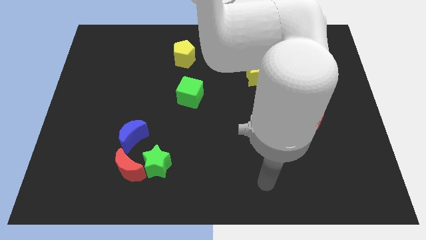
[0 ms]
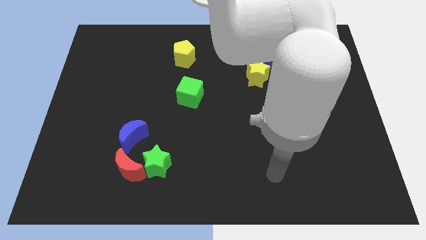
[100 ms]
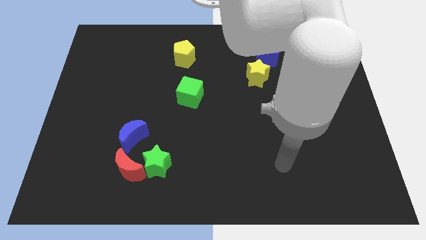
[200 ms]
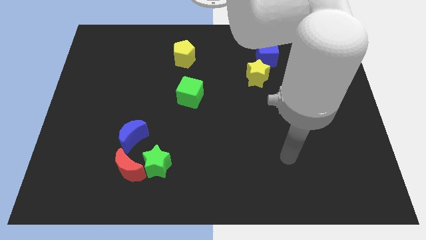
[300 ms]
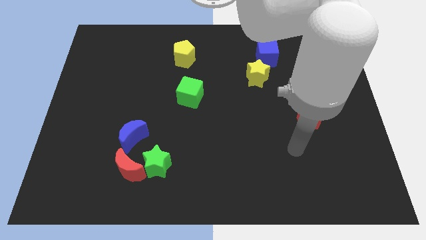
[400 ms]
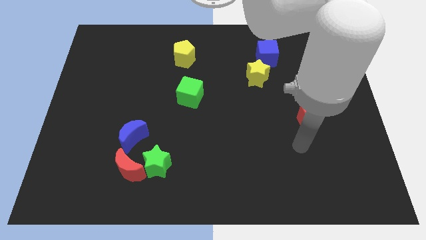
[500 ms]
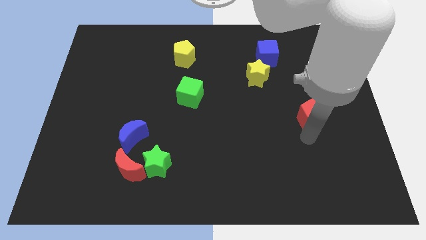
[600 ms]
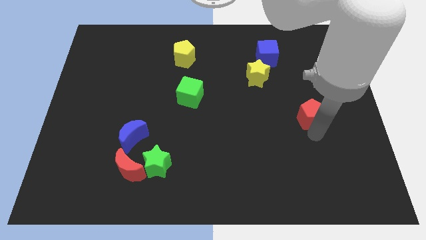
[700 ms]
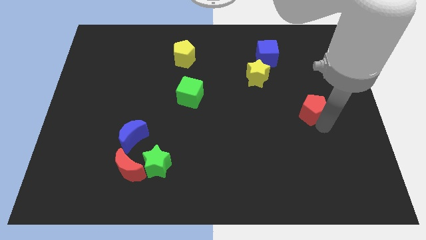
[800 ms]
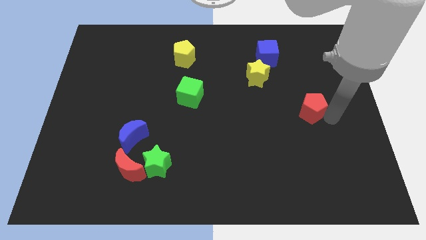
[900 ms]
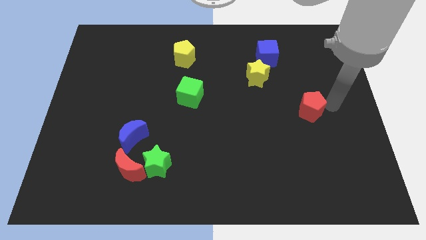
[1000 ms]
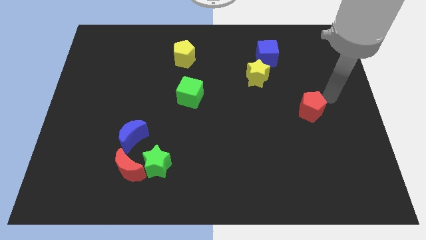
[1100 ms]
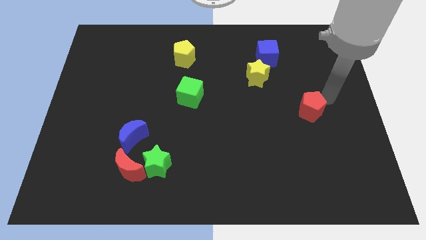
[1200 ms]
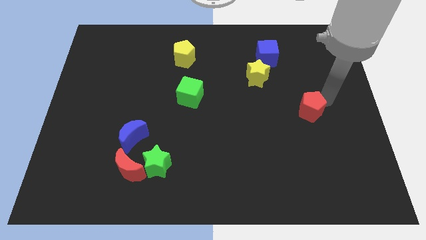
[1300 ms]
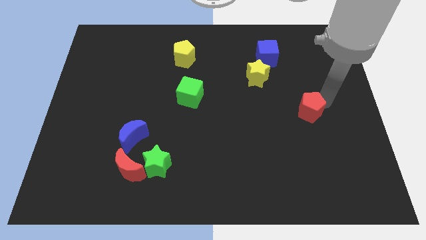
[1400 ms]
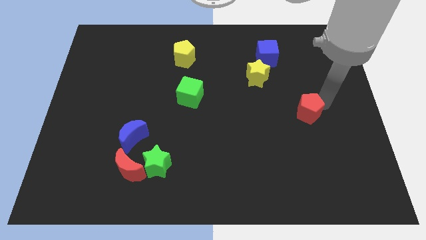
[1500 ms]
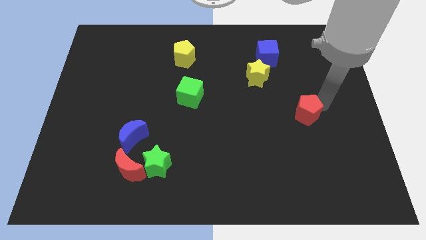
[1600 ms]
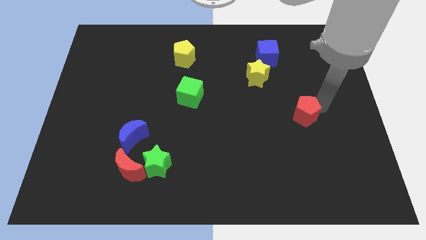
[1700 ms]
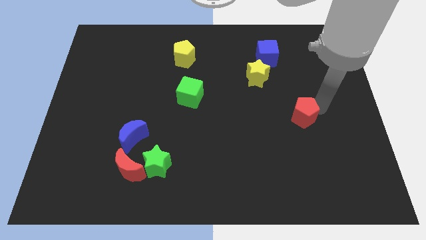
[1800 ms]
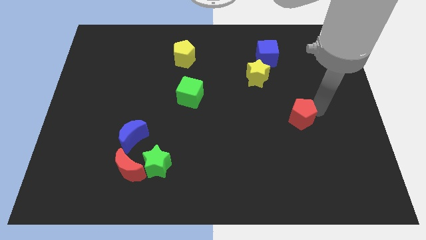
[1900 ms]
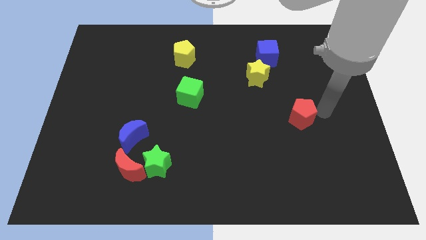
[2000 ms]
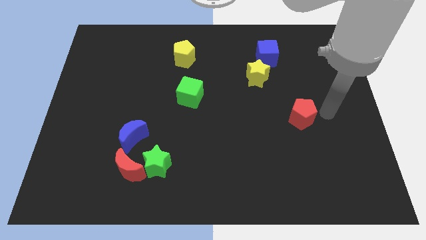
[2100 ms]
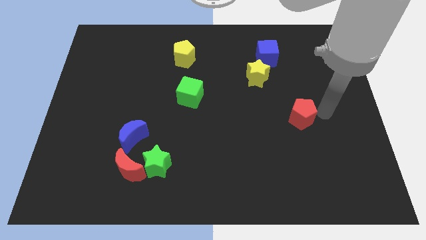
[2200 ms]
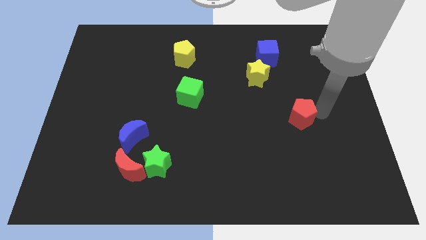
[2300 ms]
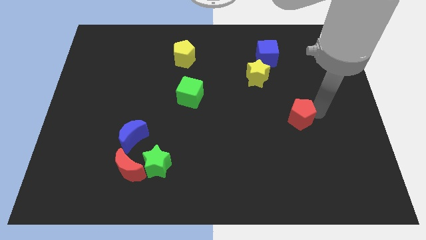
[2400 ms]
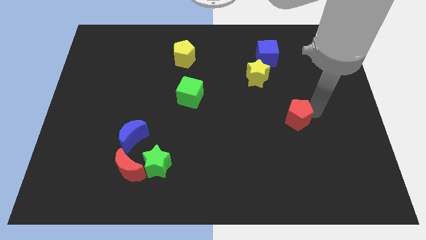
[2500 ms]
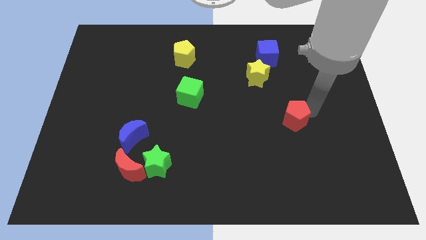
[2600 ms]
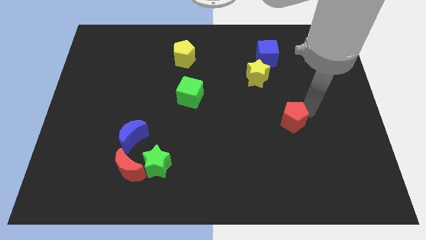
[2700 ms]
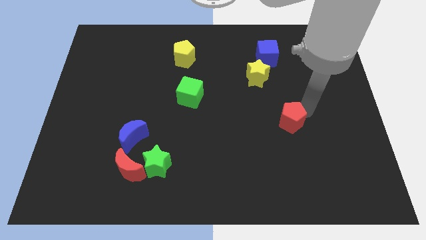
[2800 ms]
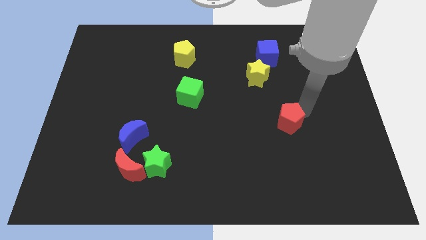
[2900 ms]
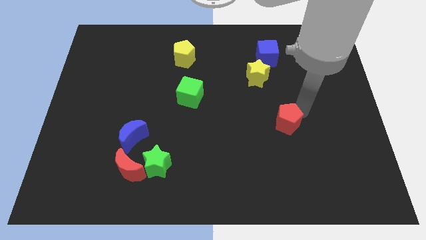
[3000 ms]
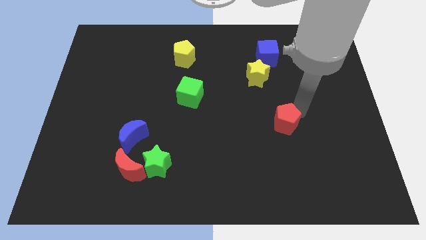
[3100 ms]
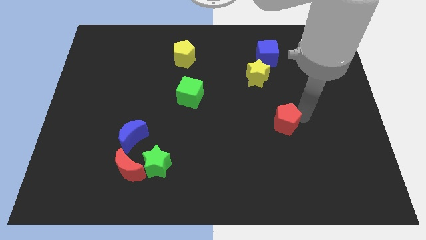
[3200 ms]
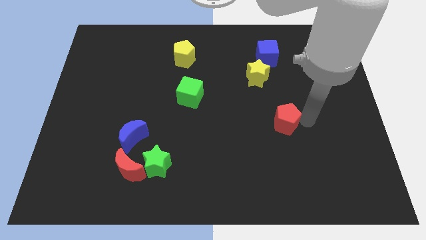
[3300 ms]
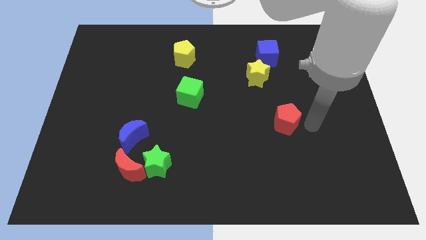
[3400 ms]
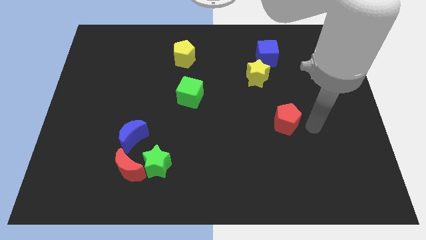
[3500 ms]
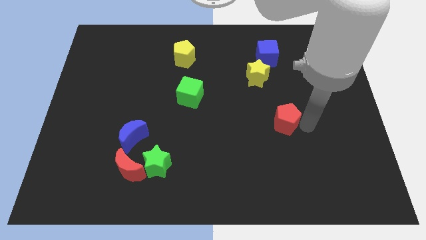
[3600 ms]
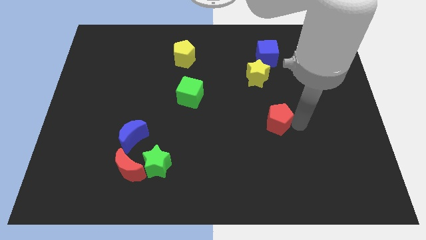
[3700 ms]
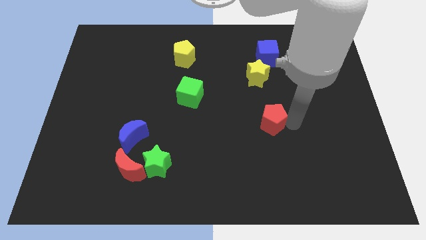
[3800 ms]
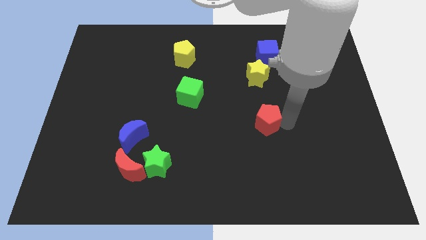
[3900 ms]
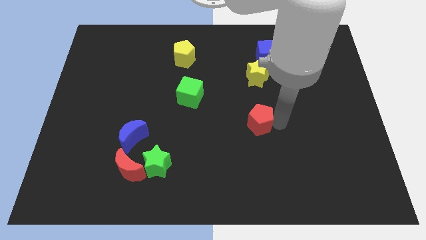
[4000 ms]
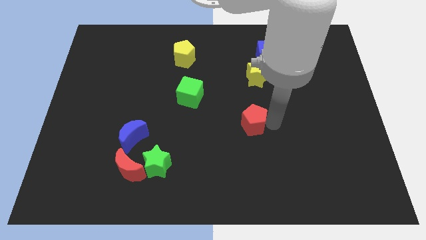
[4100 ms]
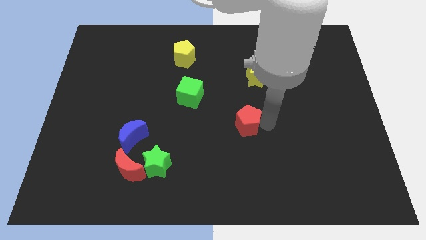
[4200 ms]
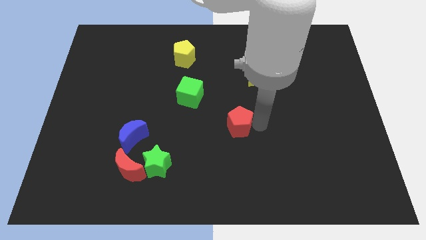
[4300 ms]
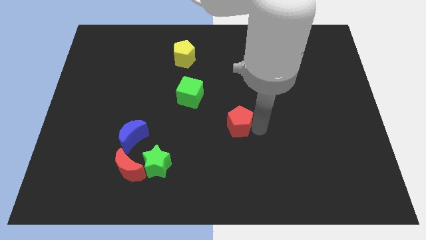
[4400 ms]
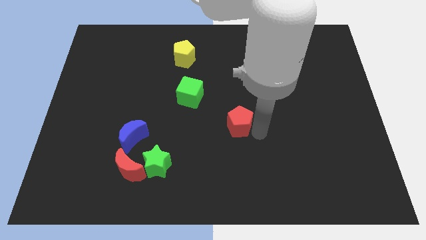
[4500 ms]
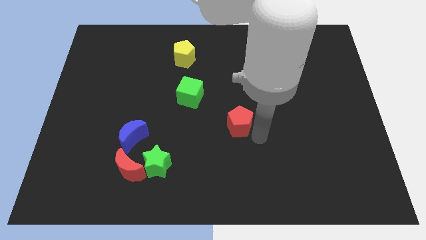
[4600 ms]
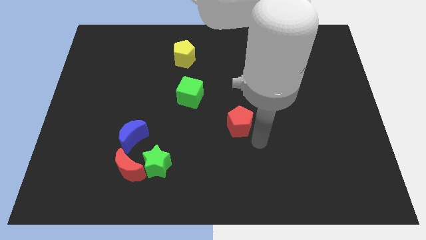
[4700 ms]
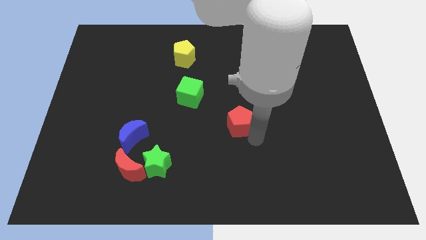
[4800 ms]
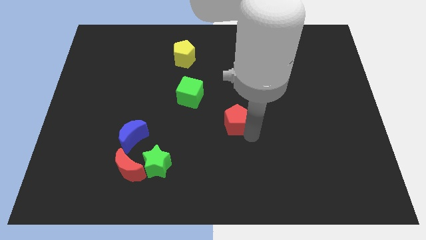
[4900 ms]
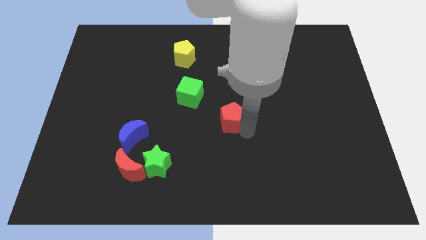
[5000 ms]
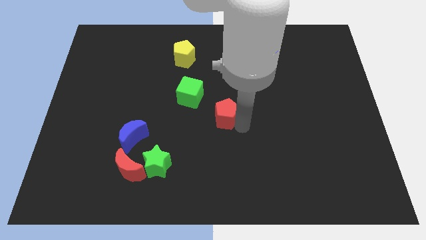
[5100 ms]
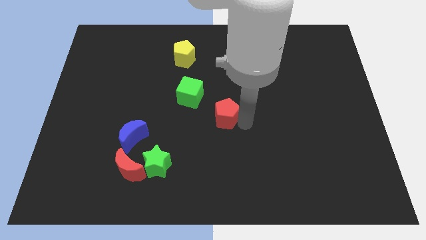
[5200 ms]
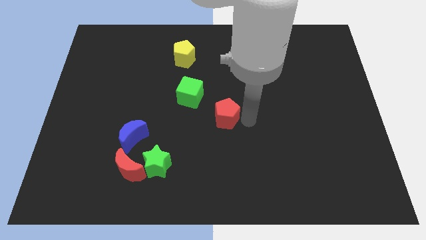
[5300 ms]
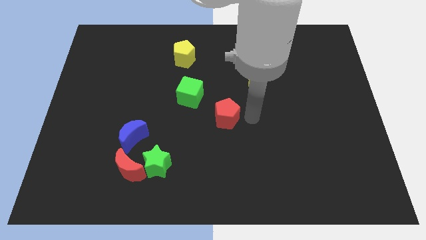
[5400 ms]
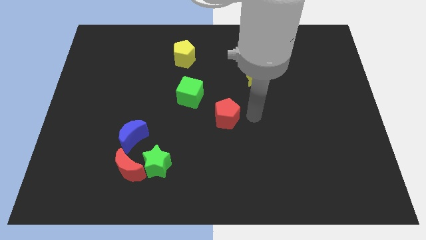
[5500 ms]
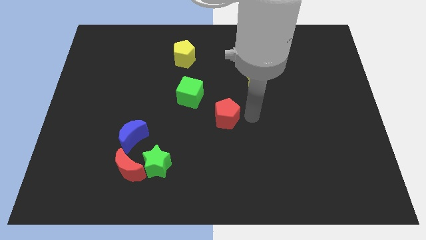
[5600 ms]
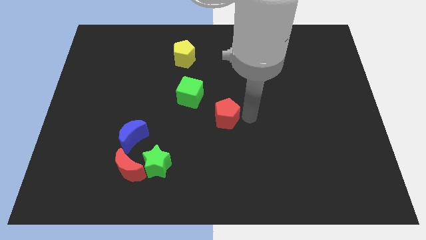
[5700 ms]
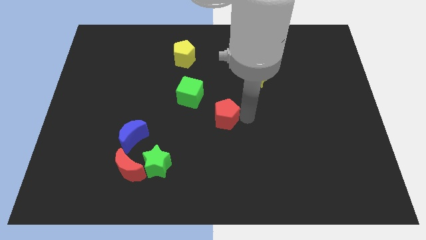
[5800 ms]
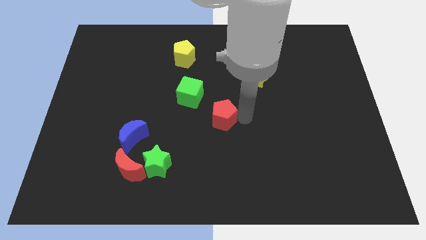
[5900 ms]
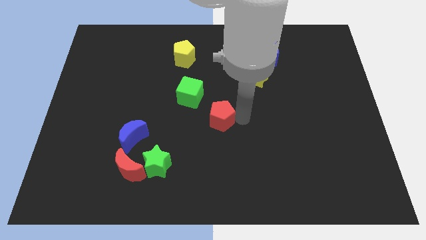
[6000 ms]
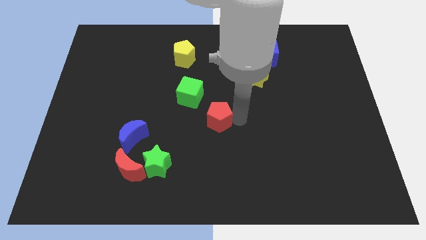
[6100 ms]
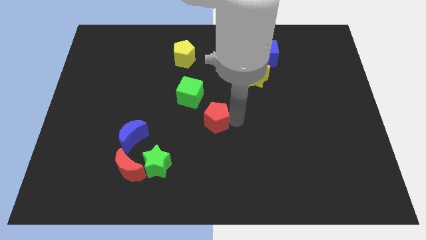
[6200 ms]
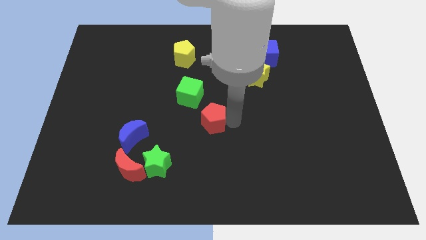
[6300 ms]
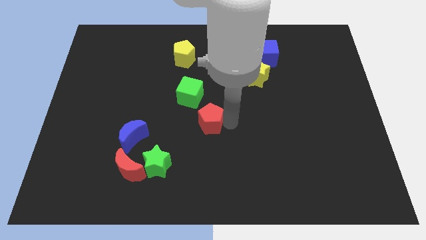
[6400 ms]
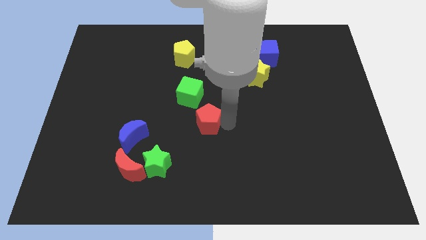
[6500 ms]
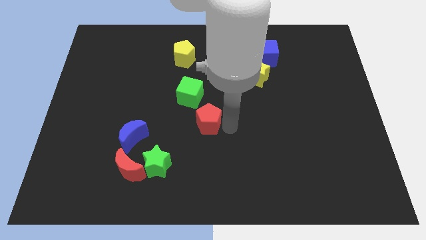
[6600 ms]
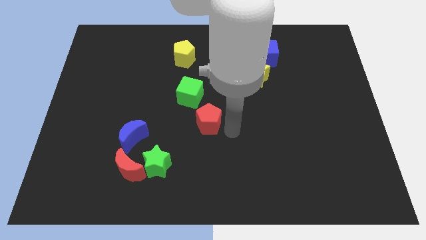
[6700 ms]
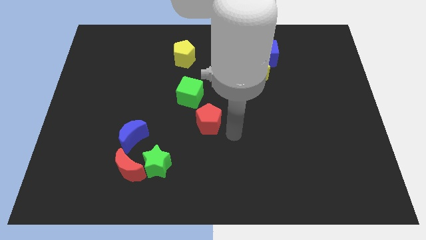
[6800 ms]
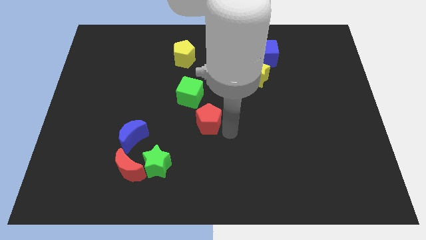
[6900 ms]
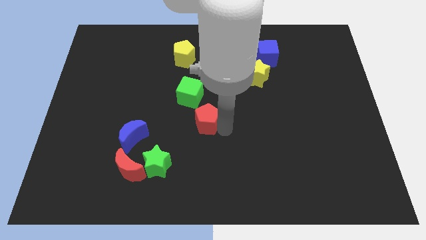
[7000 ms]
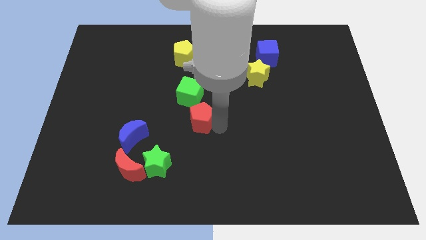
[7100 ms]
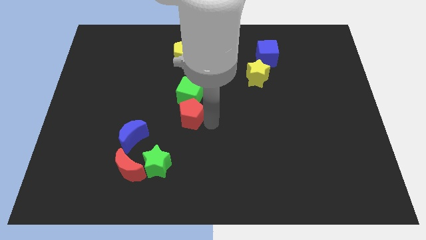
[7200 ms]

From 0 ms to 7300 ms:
slide the red pentagon to the bottom left side of the green cube
